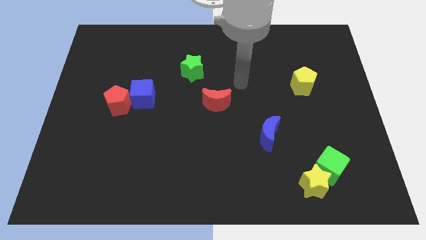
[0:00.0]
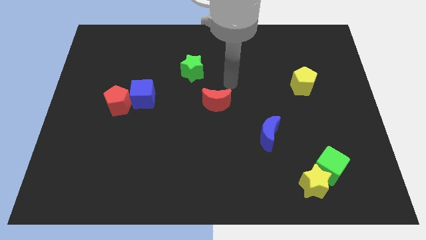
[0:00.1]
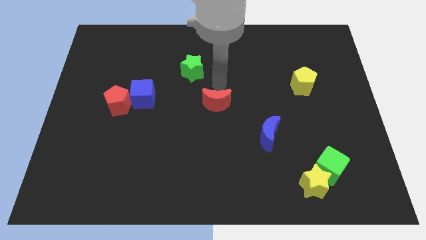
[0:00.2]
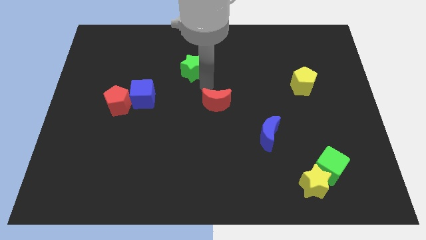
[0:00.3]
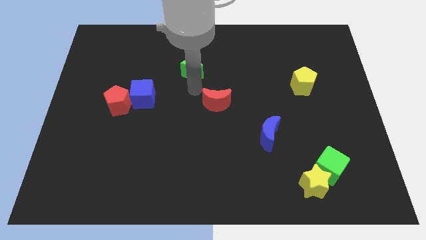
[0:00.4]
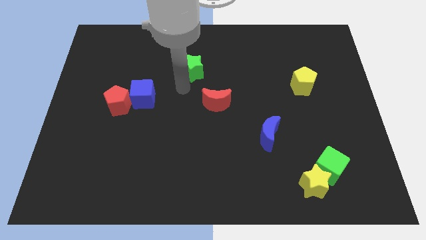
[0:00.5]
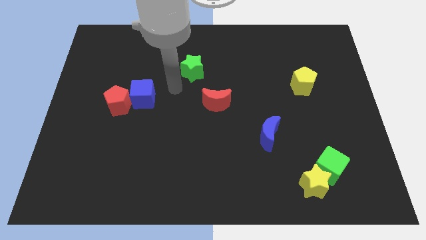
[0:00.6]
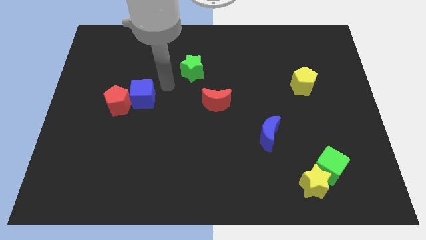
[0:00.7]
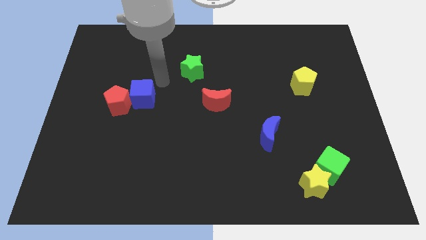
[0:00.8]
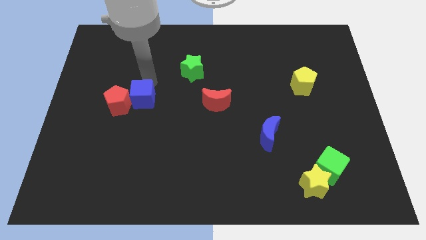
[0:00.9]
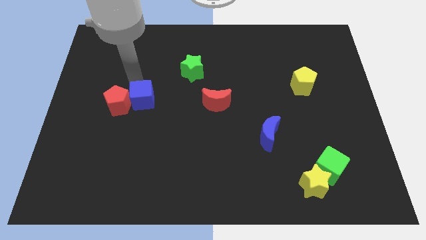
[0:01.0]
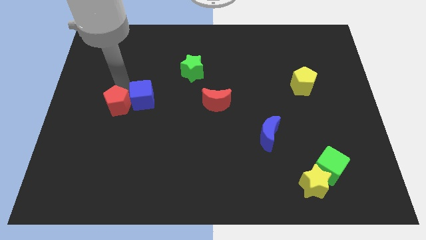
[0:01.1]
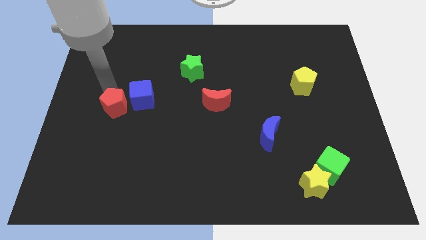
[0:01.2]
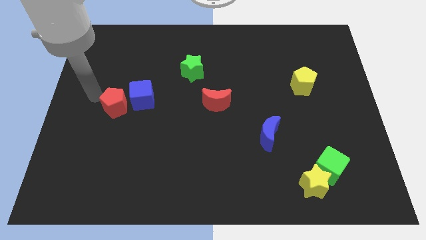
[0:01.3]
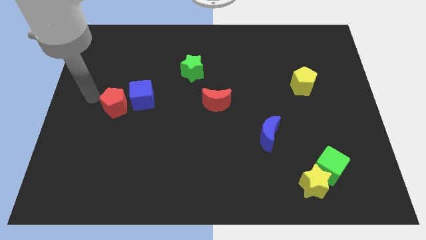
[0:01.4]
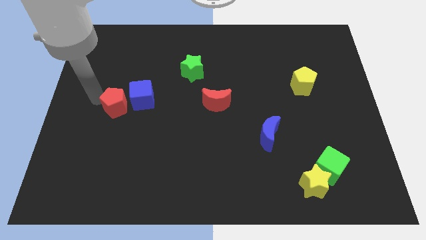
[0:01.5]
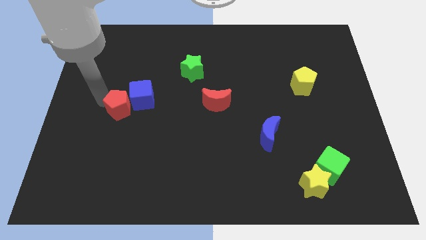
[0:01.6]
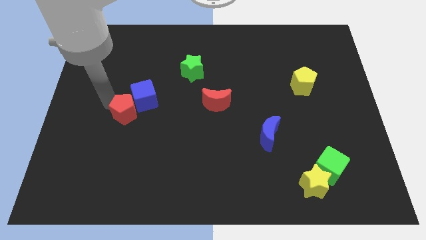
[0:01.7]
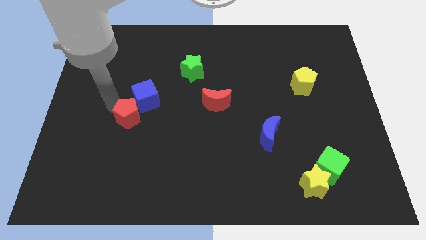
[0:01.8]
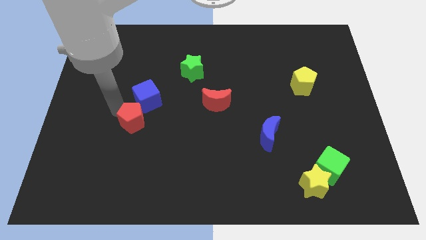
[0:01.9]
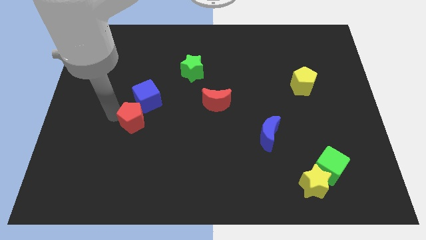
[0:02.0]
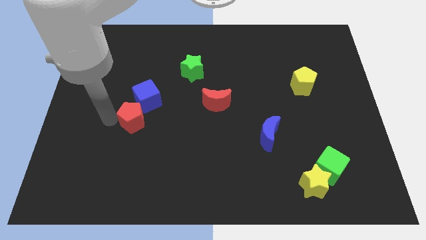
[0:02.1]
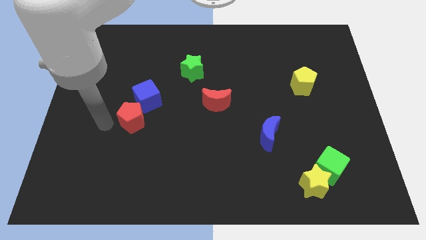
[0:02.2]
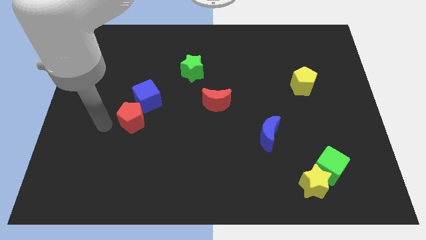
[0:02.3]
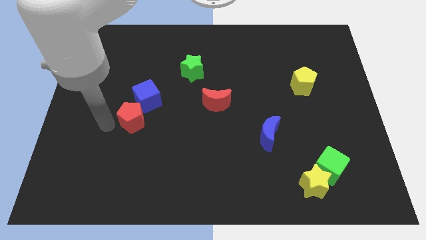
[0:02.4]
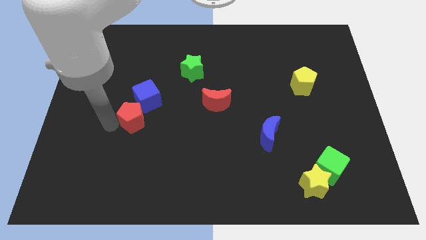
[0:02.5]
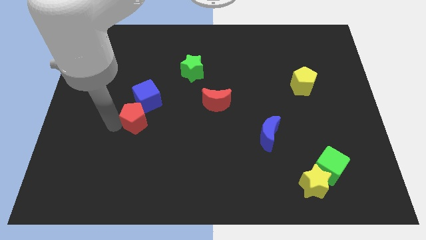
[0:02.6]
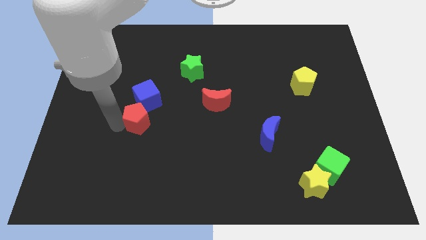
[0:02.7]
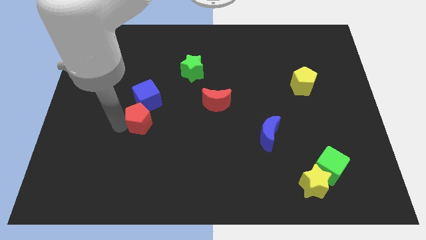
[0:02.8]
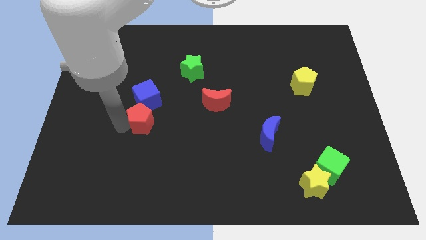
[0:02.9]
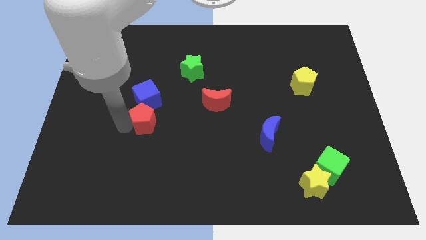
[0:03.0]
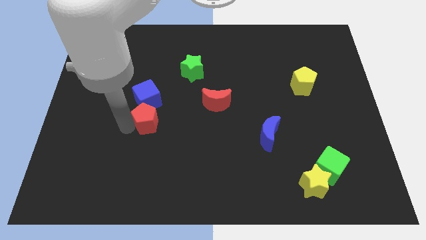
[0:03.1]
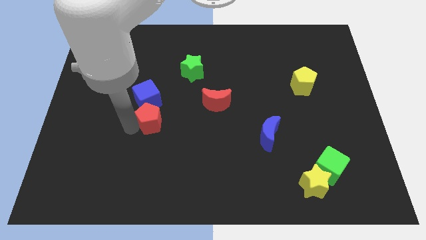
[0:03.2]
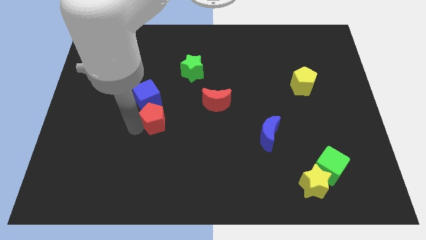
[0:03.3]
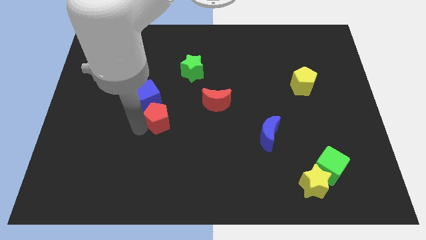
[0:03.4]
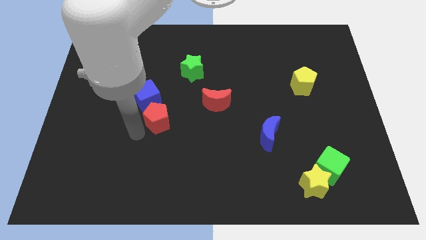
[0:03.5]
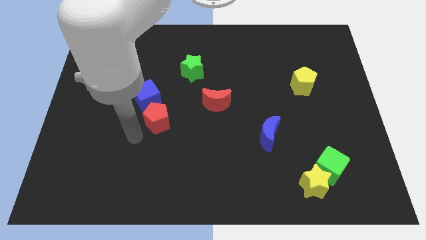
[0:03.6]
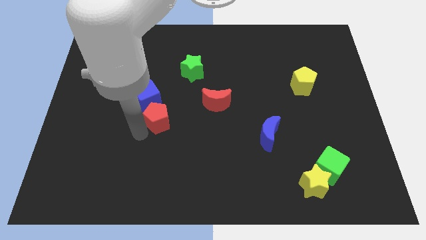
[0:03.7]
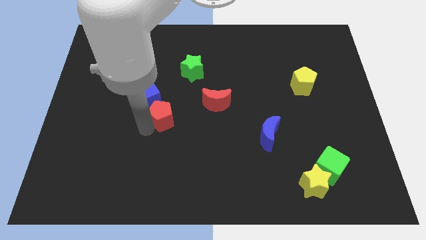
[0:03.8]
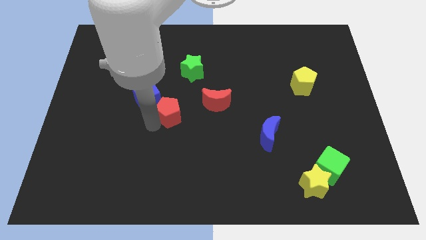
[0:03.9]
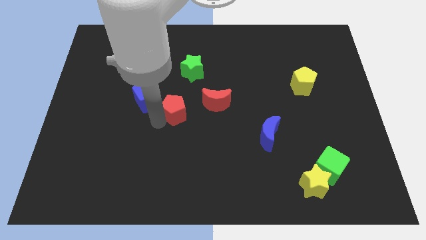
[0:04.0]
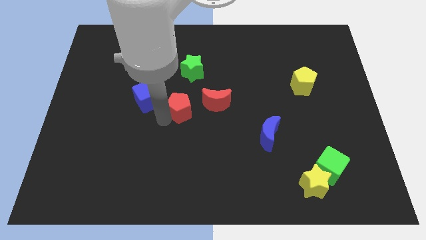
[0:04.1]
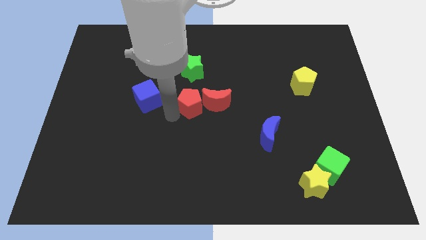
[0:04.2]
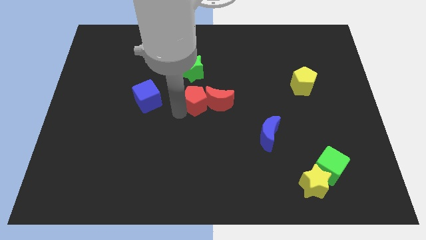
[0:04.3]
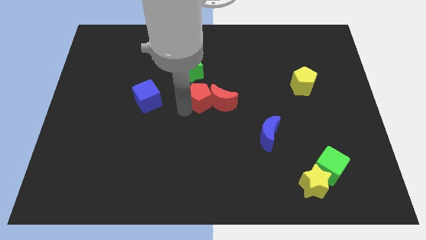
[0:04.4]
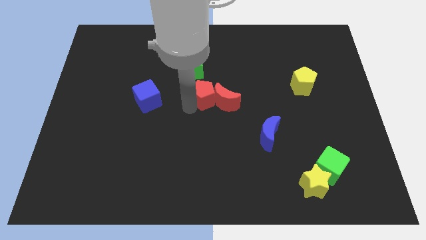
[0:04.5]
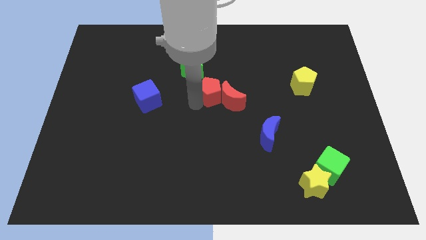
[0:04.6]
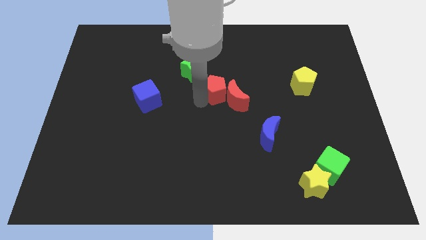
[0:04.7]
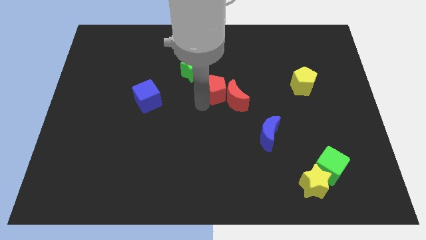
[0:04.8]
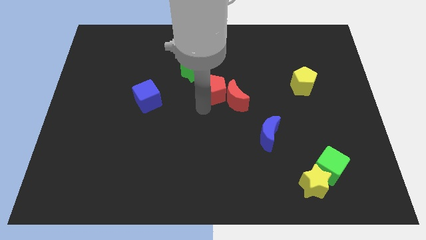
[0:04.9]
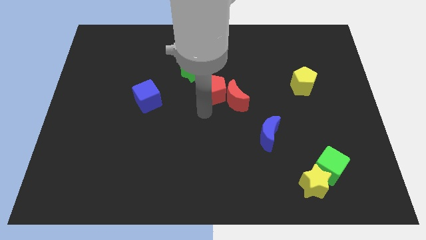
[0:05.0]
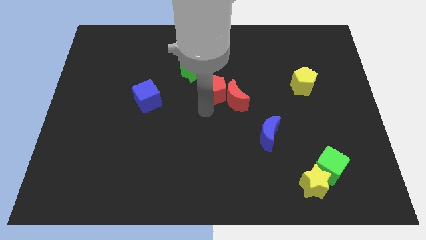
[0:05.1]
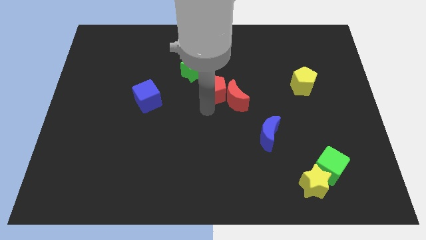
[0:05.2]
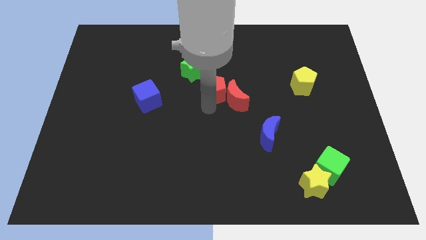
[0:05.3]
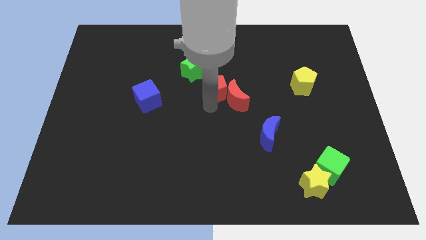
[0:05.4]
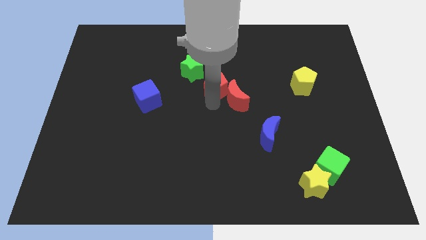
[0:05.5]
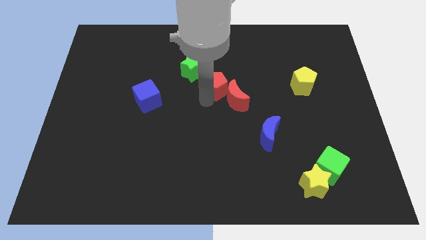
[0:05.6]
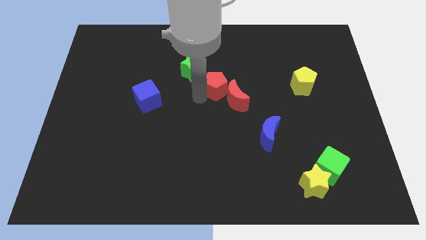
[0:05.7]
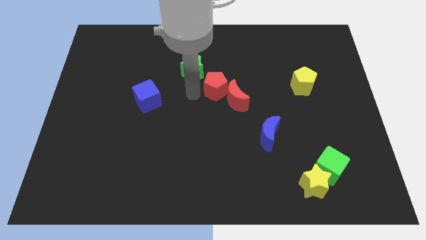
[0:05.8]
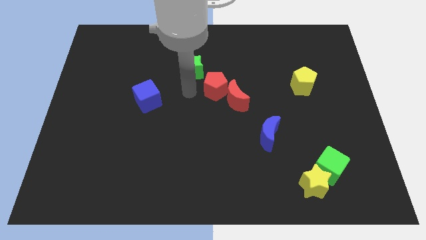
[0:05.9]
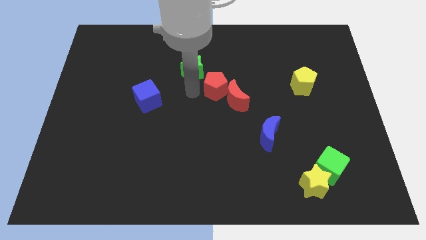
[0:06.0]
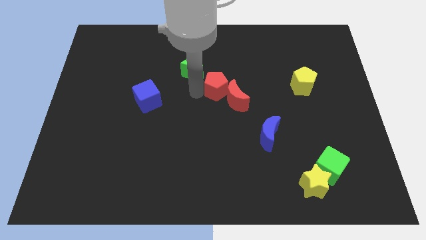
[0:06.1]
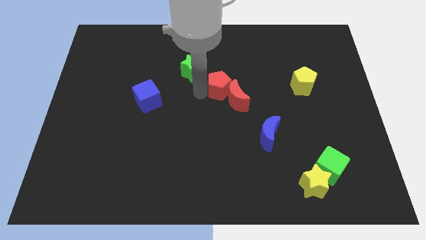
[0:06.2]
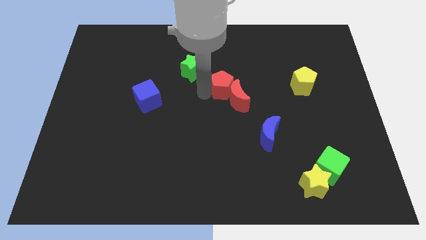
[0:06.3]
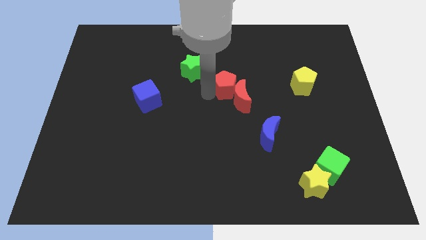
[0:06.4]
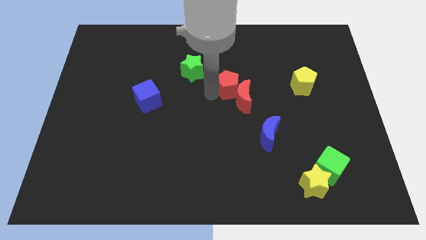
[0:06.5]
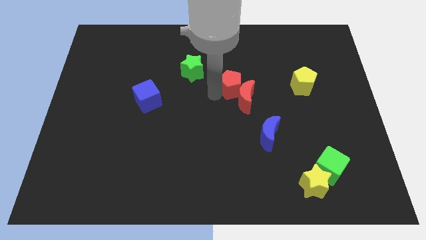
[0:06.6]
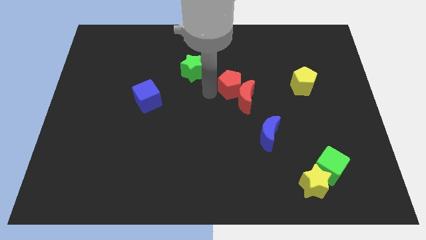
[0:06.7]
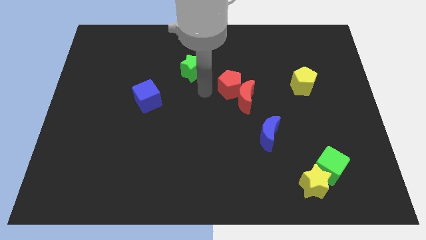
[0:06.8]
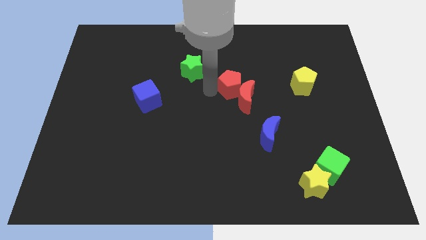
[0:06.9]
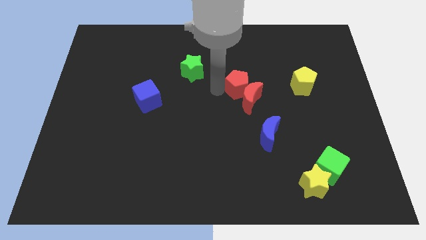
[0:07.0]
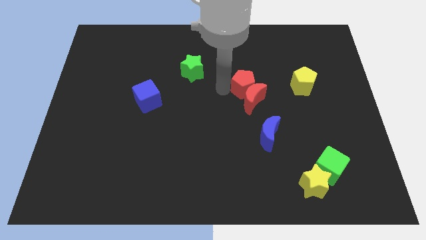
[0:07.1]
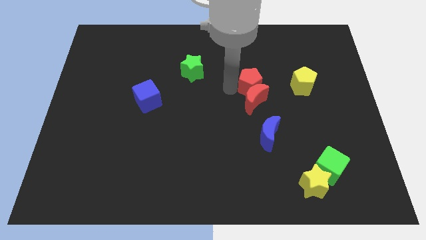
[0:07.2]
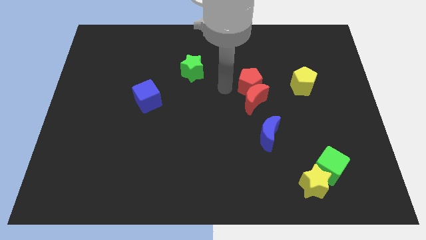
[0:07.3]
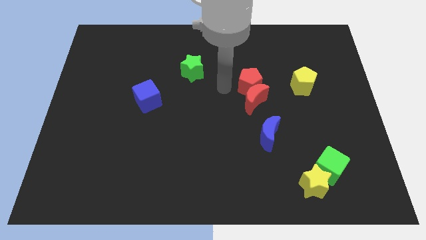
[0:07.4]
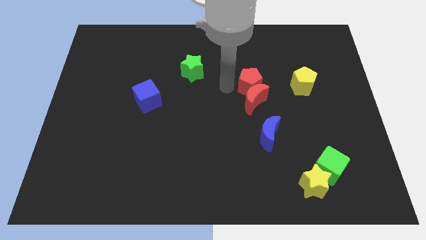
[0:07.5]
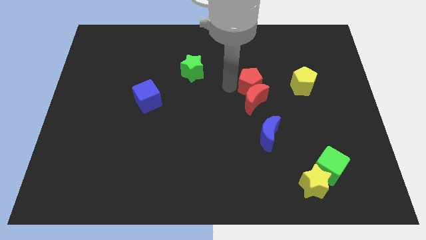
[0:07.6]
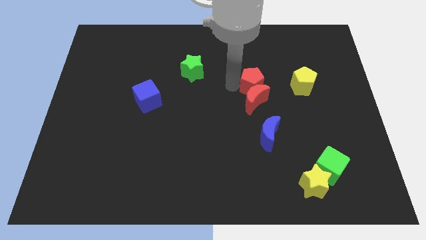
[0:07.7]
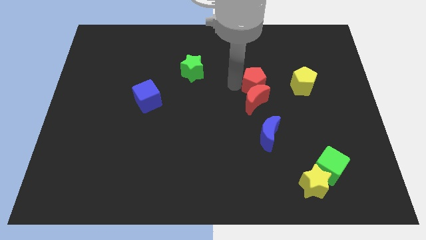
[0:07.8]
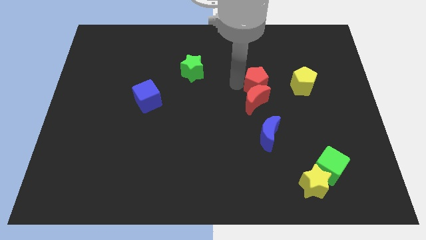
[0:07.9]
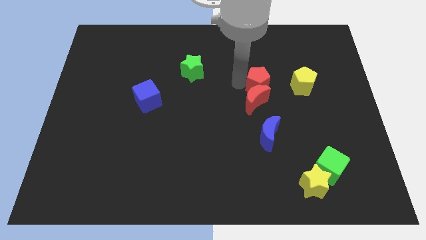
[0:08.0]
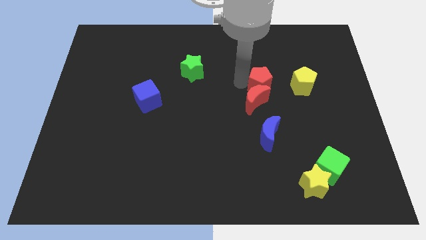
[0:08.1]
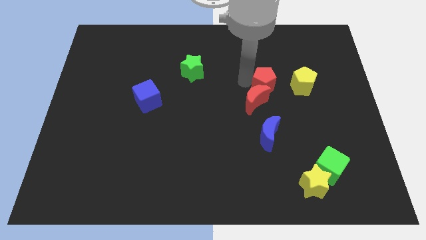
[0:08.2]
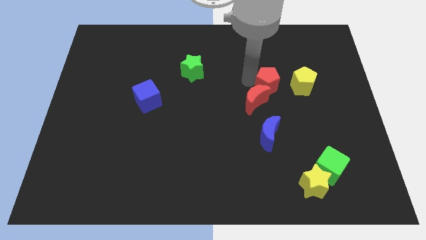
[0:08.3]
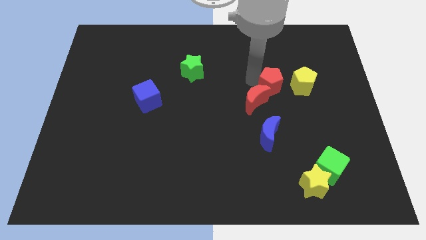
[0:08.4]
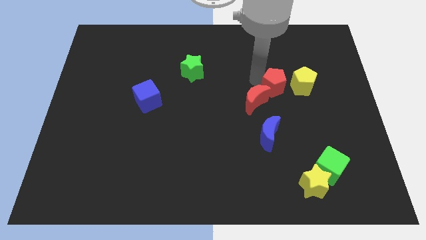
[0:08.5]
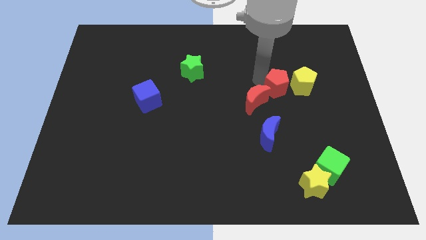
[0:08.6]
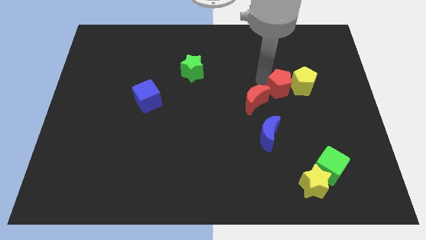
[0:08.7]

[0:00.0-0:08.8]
put the red pentagon to the yellow pentagon
